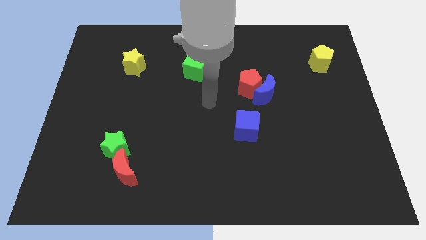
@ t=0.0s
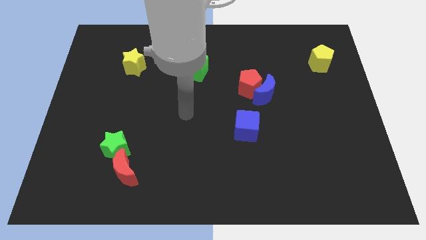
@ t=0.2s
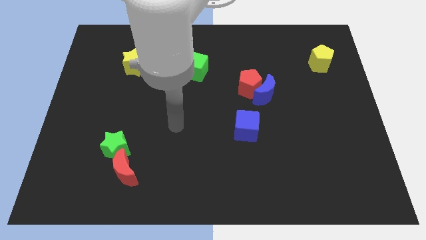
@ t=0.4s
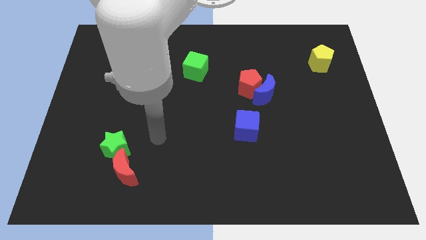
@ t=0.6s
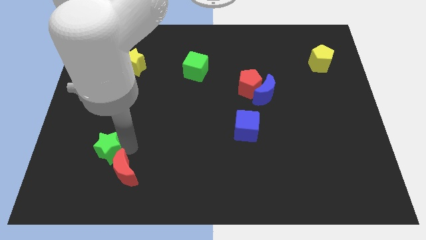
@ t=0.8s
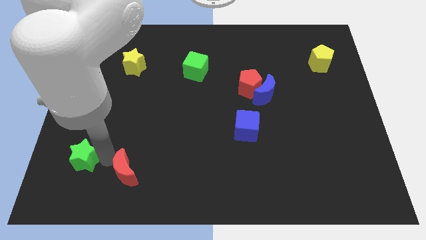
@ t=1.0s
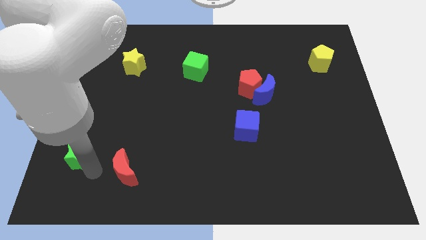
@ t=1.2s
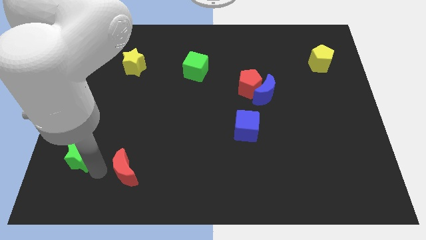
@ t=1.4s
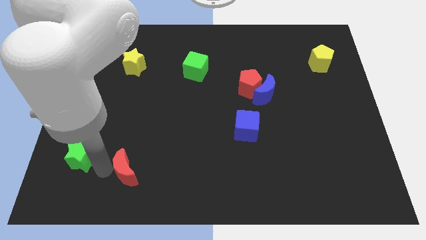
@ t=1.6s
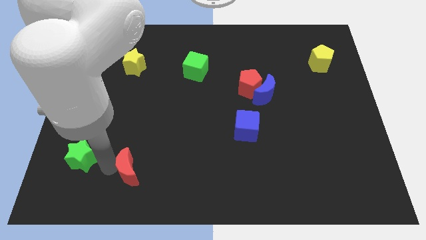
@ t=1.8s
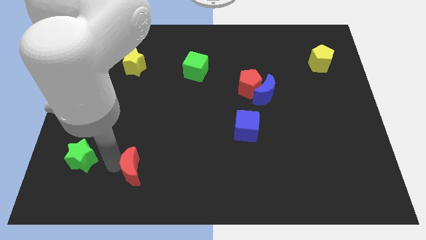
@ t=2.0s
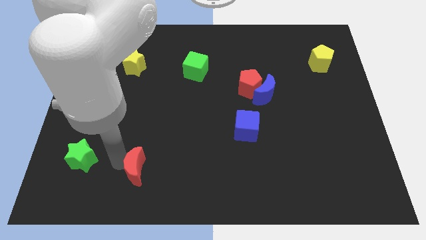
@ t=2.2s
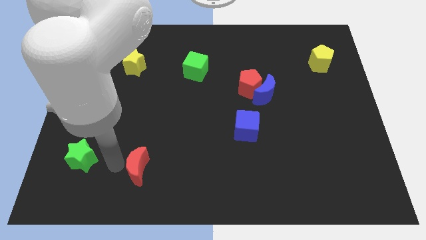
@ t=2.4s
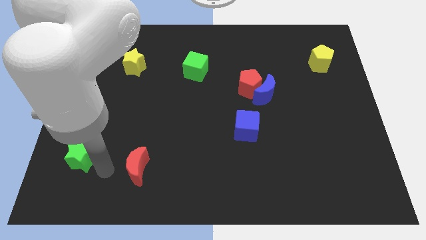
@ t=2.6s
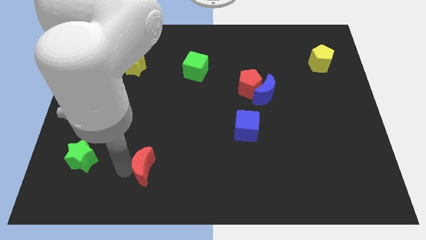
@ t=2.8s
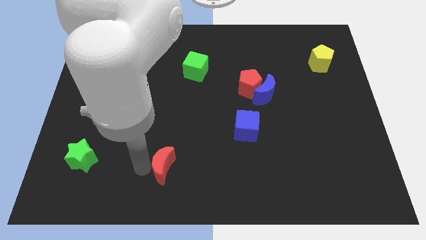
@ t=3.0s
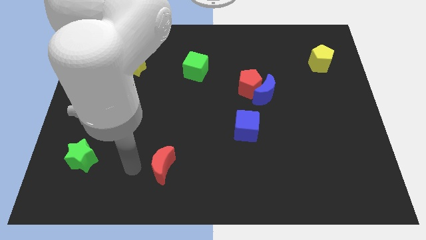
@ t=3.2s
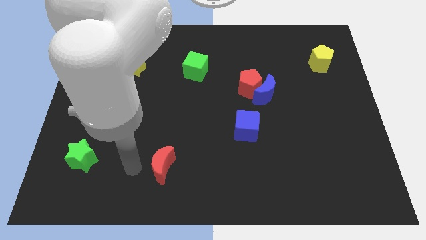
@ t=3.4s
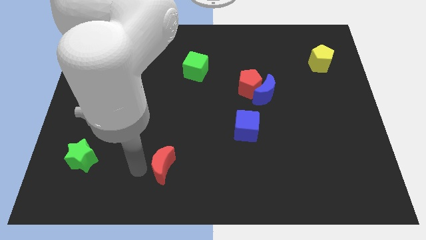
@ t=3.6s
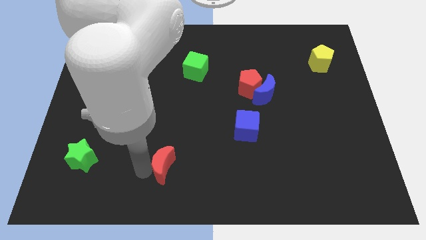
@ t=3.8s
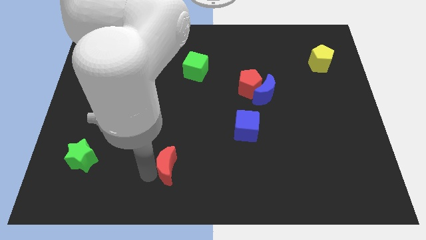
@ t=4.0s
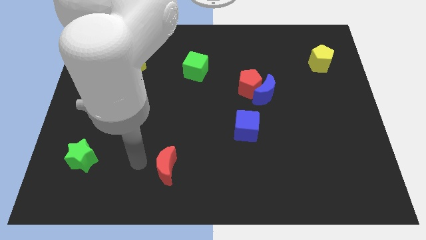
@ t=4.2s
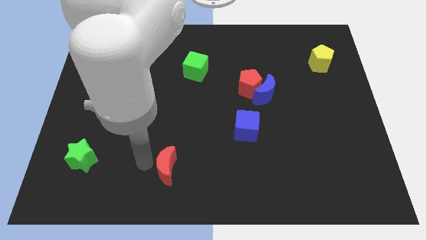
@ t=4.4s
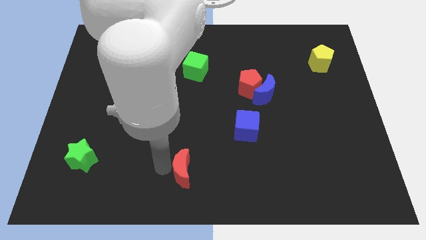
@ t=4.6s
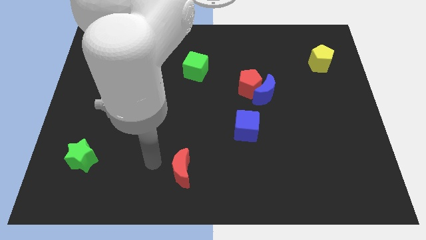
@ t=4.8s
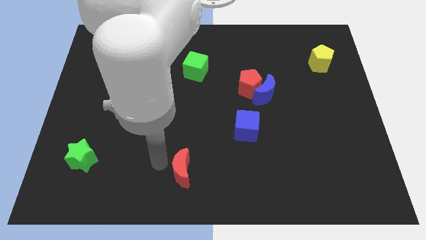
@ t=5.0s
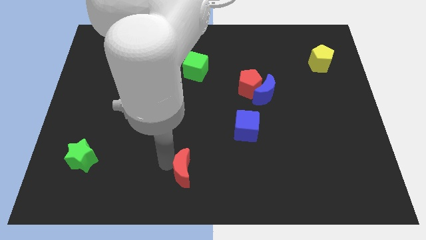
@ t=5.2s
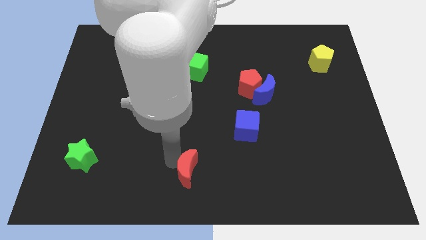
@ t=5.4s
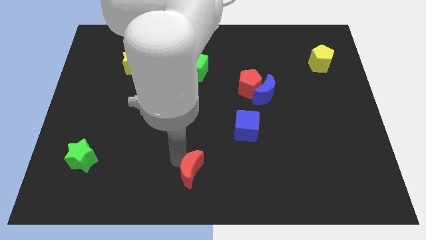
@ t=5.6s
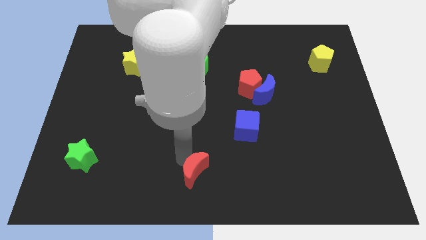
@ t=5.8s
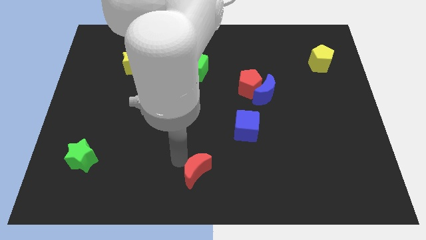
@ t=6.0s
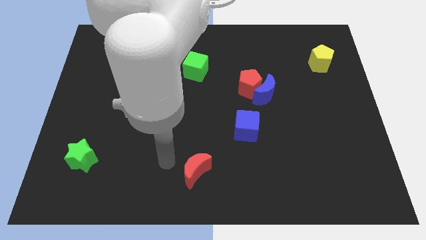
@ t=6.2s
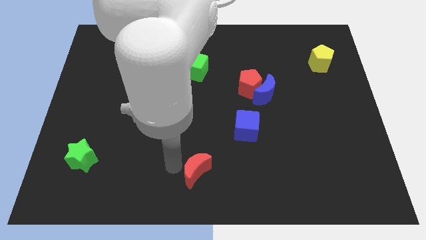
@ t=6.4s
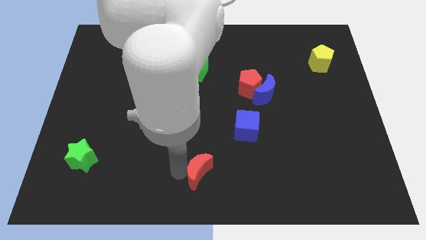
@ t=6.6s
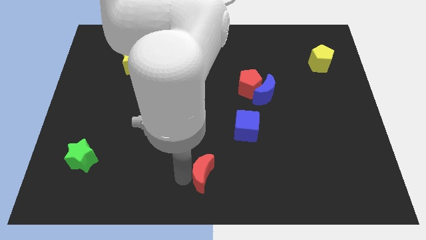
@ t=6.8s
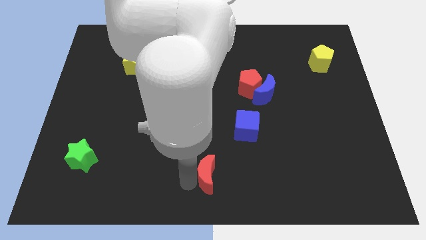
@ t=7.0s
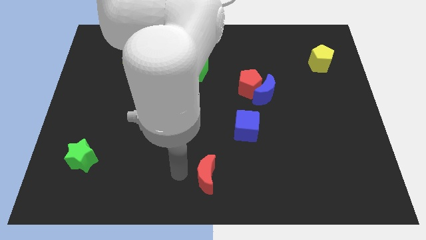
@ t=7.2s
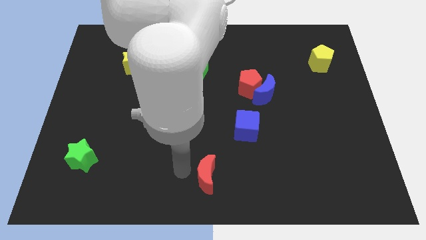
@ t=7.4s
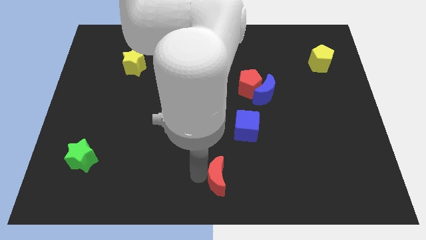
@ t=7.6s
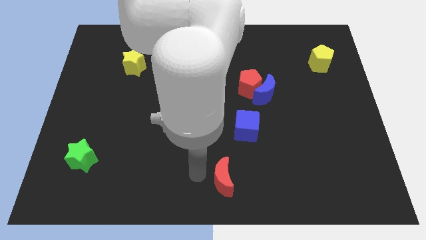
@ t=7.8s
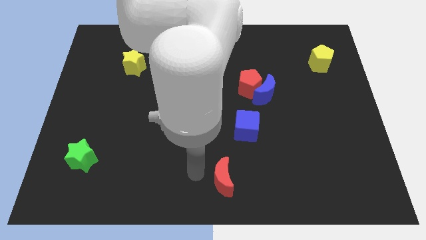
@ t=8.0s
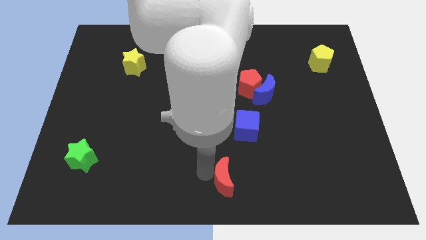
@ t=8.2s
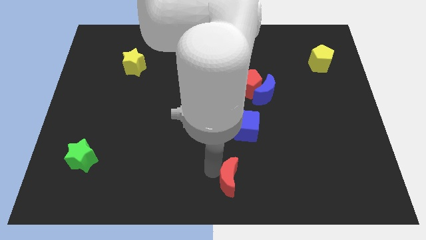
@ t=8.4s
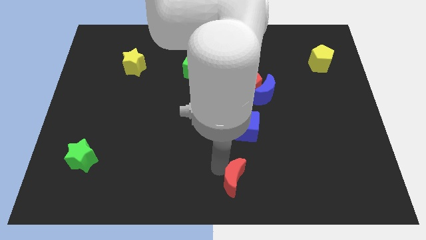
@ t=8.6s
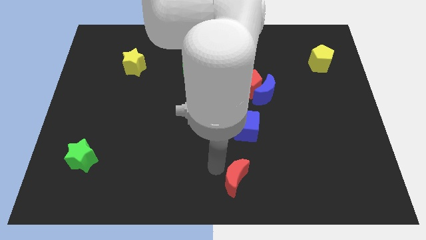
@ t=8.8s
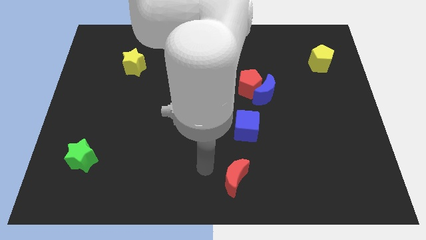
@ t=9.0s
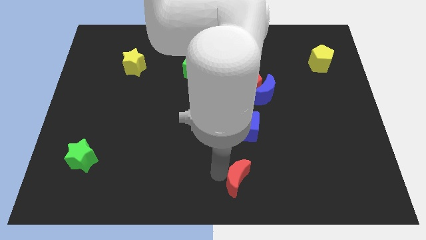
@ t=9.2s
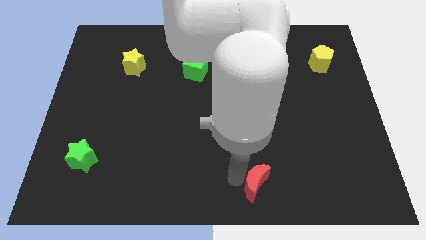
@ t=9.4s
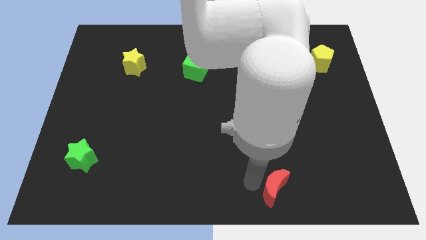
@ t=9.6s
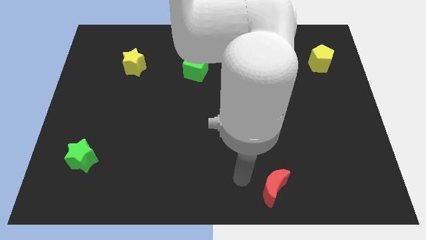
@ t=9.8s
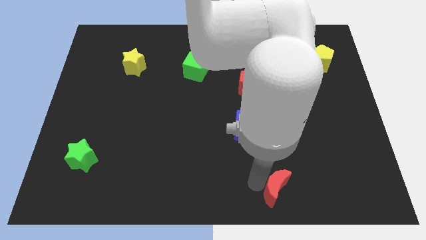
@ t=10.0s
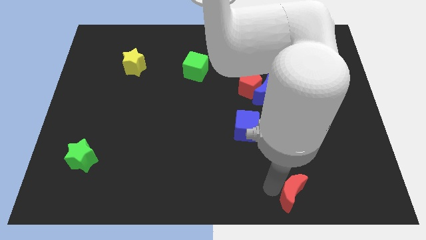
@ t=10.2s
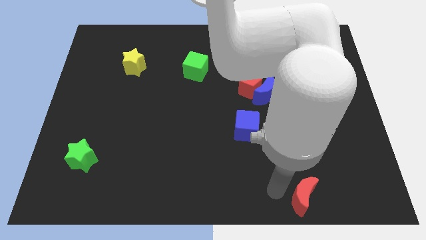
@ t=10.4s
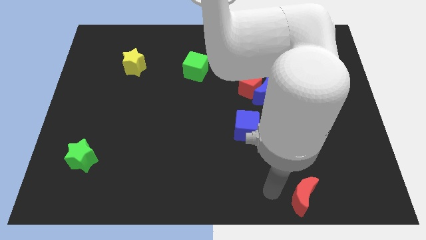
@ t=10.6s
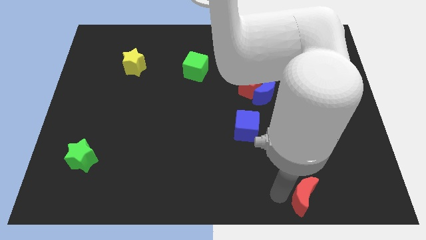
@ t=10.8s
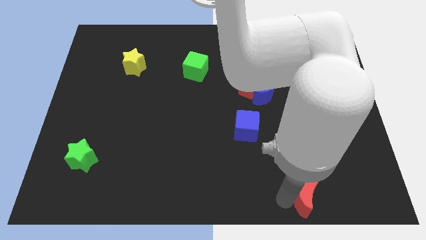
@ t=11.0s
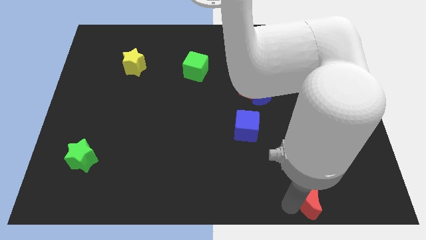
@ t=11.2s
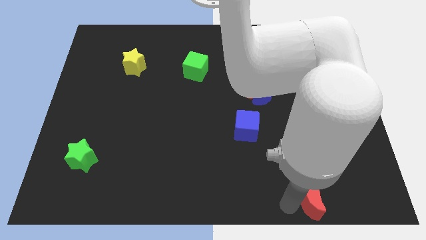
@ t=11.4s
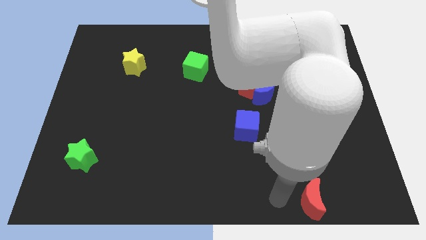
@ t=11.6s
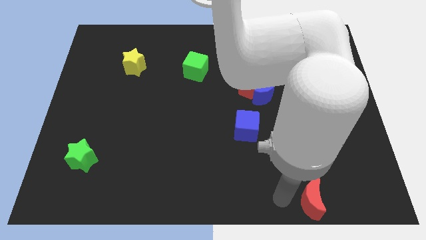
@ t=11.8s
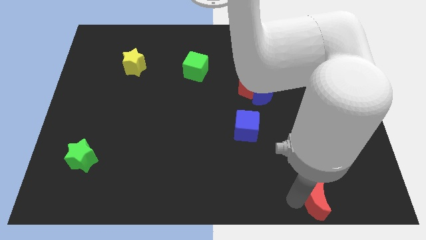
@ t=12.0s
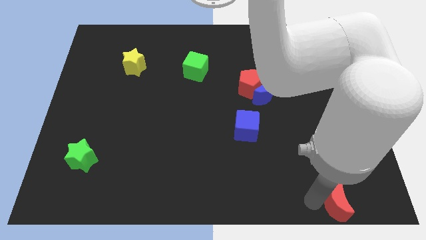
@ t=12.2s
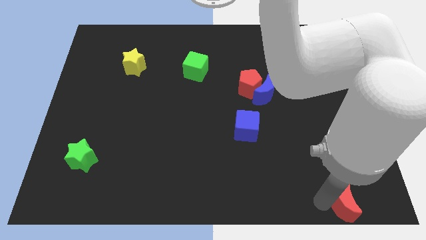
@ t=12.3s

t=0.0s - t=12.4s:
put the red moon to the bottom right of the board

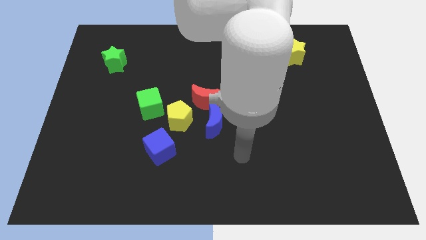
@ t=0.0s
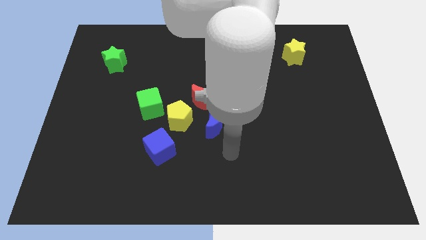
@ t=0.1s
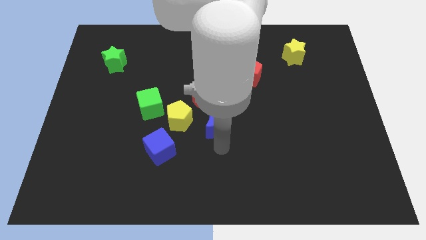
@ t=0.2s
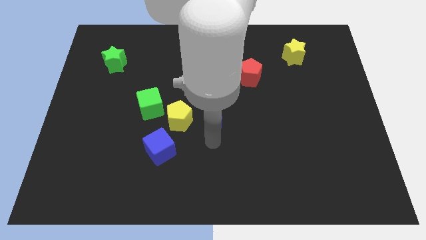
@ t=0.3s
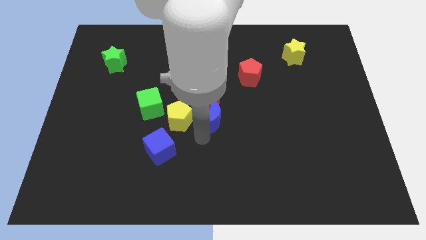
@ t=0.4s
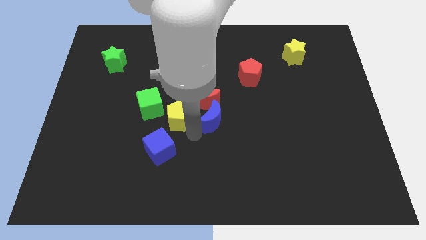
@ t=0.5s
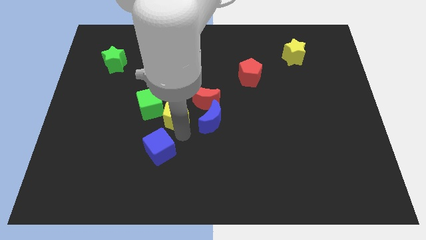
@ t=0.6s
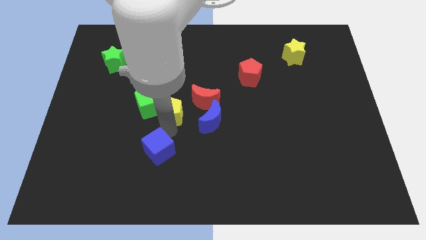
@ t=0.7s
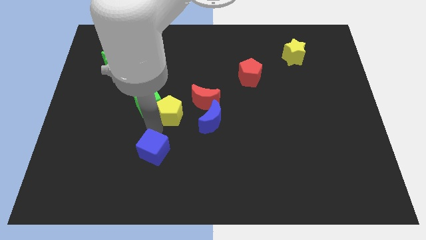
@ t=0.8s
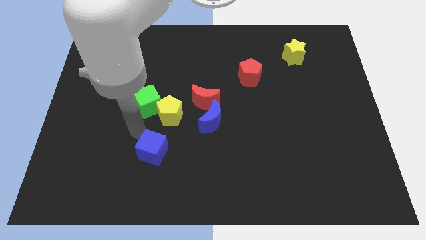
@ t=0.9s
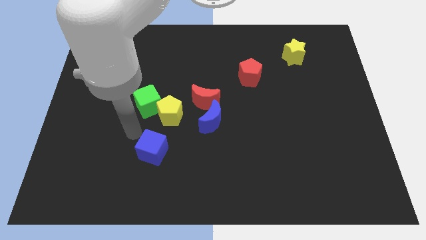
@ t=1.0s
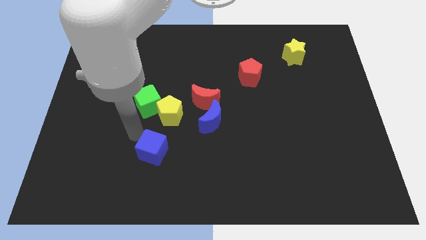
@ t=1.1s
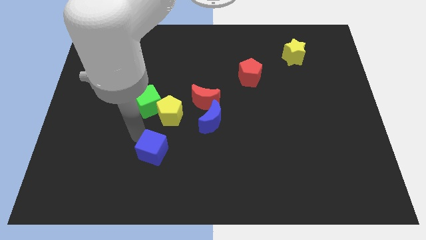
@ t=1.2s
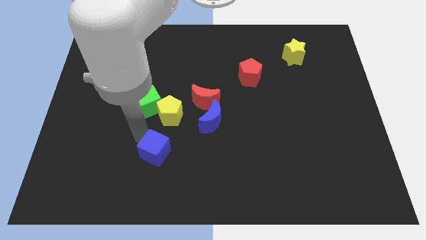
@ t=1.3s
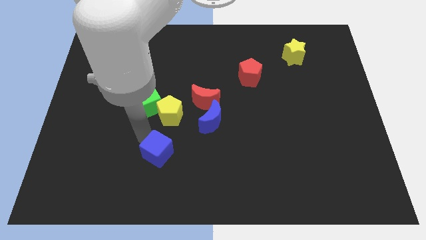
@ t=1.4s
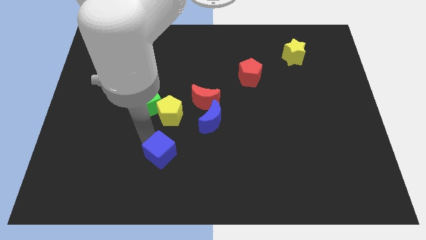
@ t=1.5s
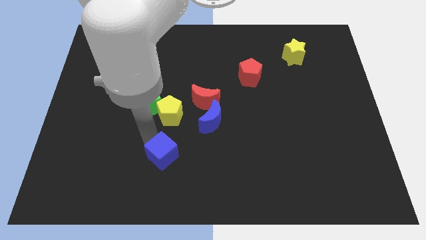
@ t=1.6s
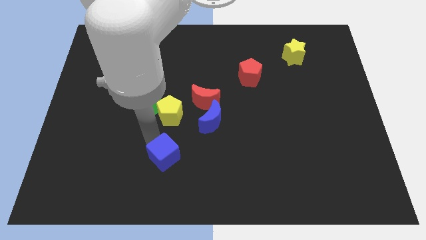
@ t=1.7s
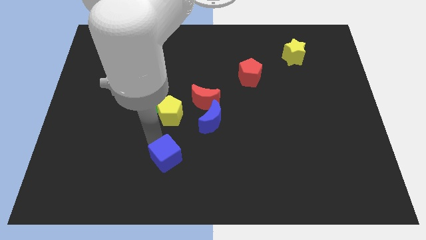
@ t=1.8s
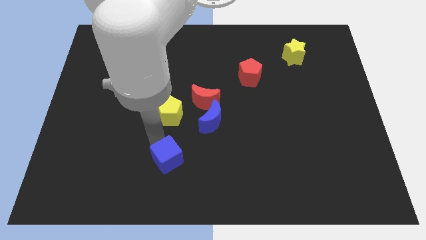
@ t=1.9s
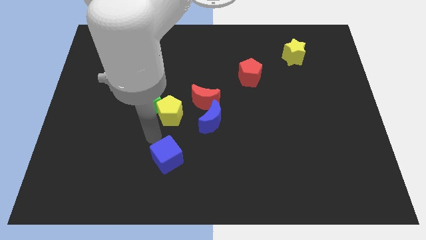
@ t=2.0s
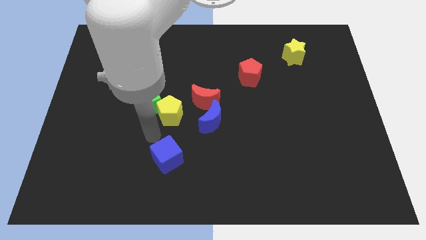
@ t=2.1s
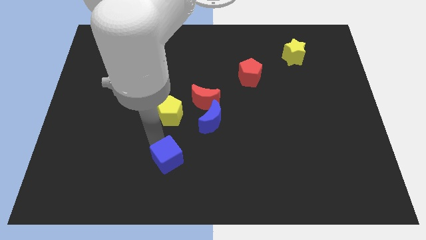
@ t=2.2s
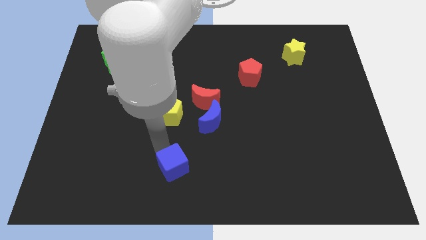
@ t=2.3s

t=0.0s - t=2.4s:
put the blue cube to the bottom
